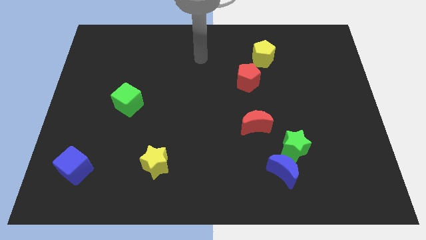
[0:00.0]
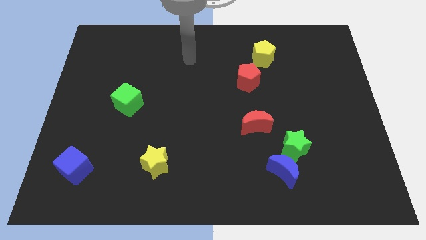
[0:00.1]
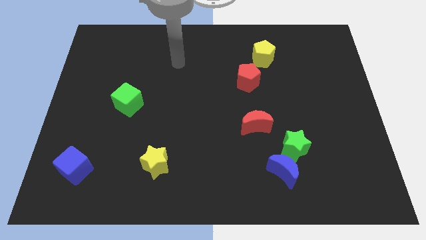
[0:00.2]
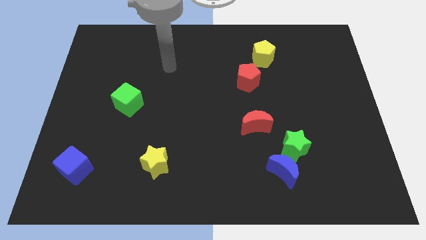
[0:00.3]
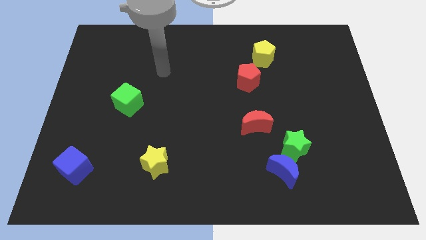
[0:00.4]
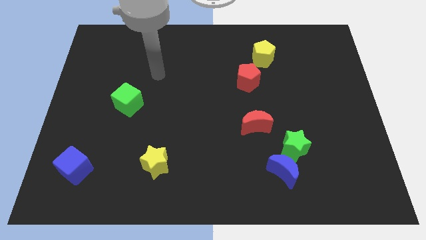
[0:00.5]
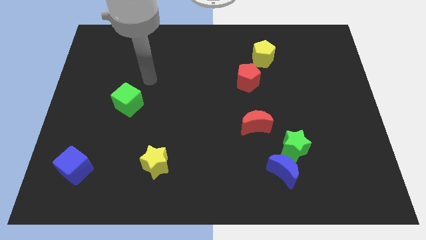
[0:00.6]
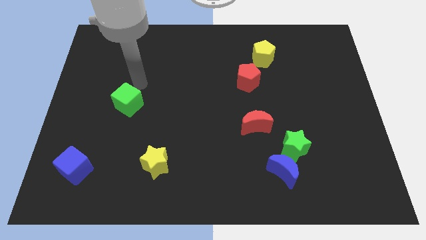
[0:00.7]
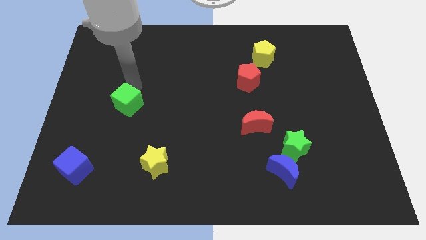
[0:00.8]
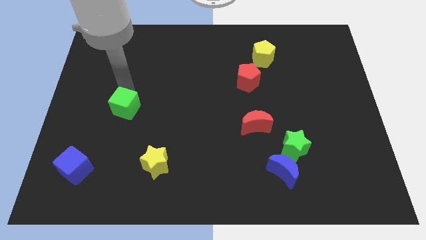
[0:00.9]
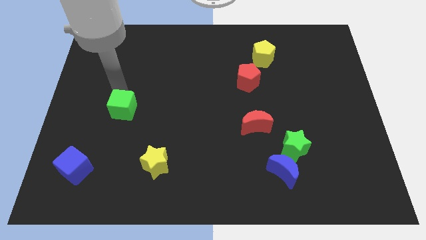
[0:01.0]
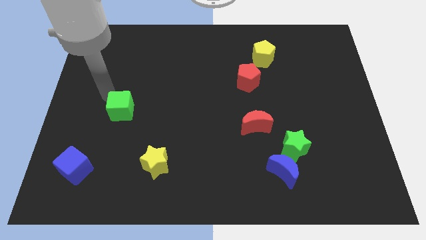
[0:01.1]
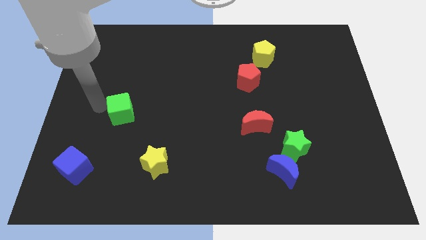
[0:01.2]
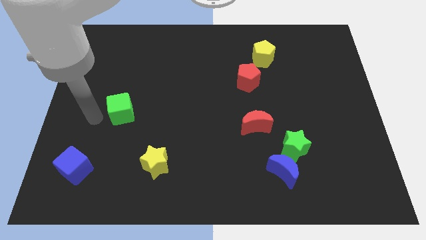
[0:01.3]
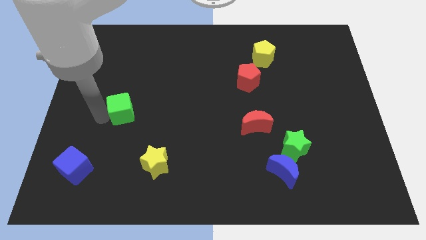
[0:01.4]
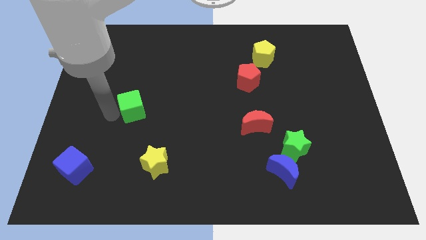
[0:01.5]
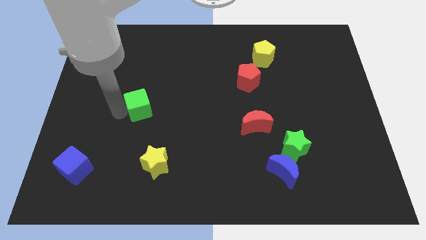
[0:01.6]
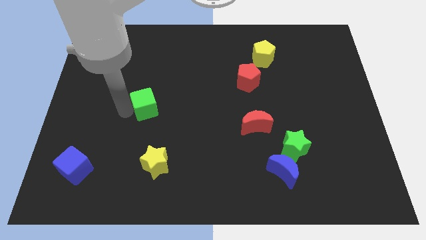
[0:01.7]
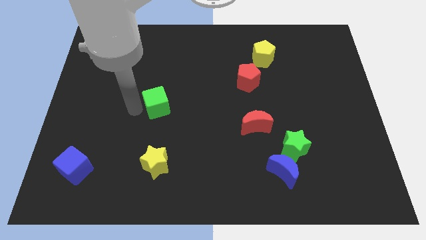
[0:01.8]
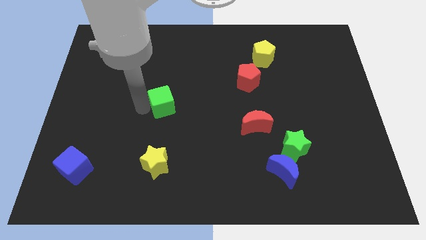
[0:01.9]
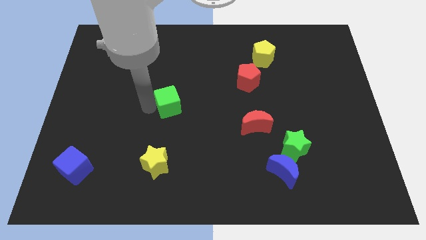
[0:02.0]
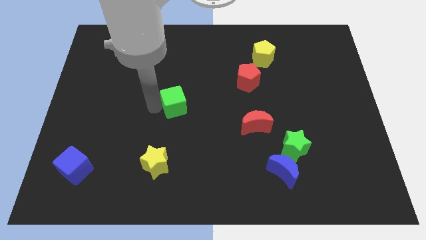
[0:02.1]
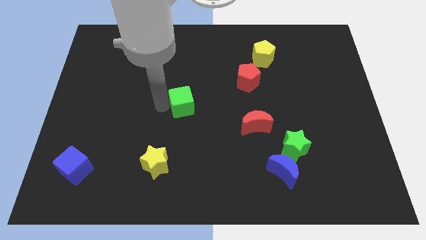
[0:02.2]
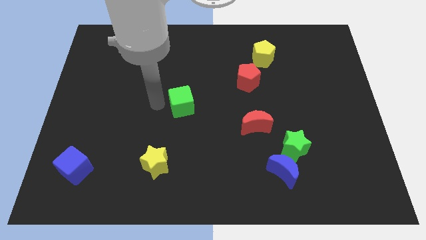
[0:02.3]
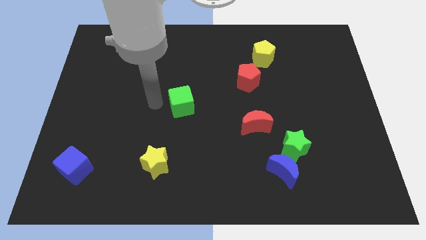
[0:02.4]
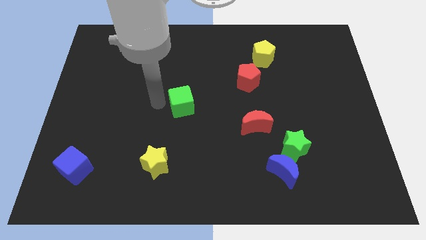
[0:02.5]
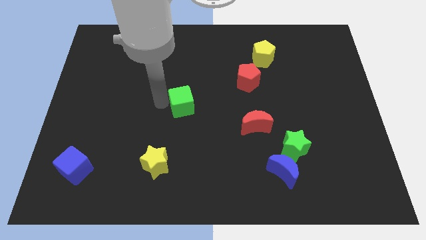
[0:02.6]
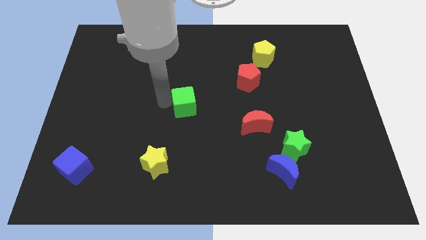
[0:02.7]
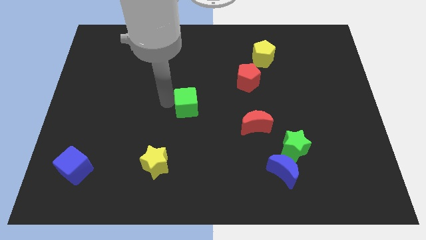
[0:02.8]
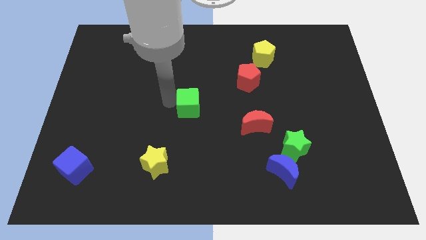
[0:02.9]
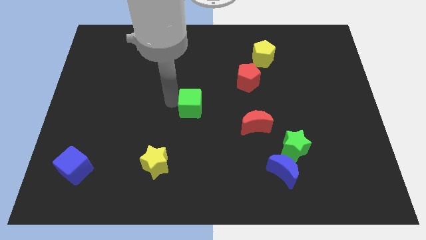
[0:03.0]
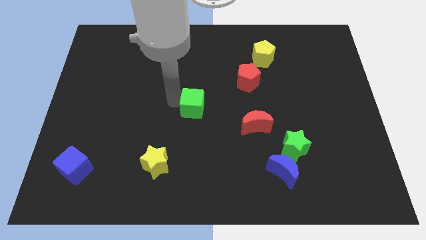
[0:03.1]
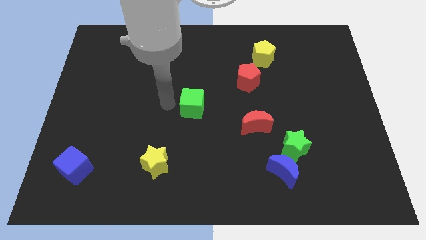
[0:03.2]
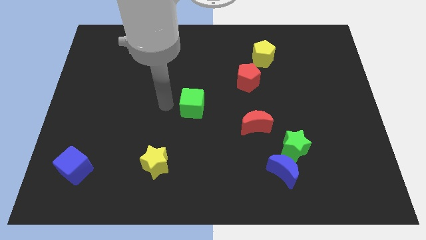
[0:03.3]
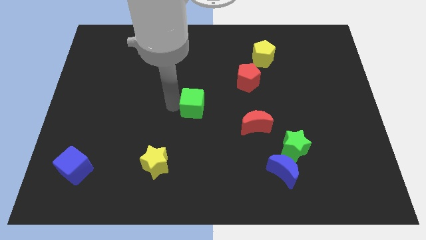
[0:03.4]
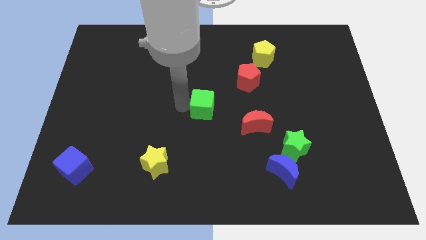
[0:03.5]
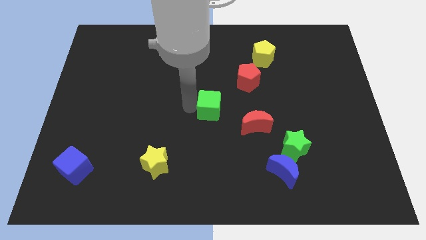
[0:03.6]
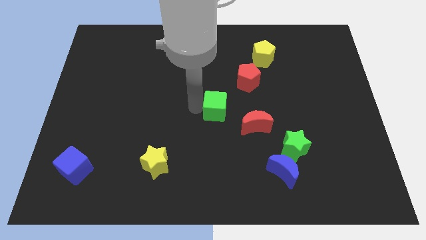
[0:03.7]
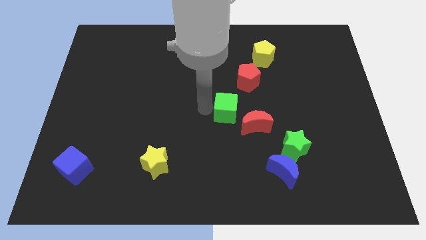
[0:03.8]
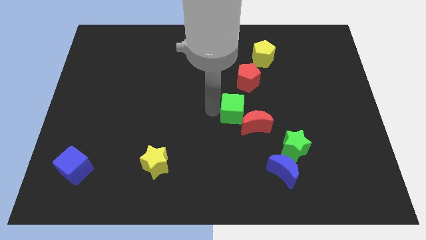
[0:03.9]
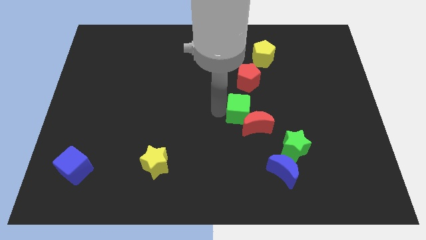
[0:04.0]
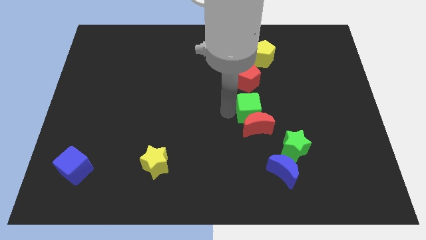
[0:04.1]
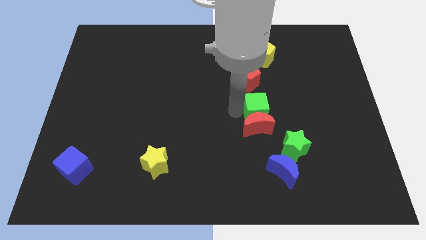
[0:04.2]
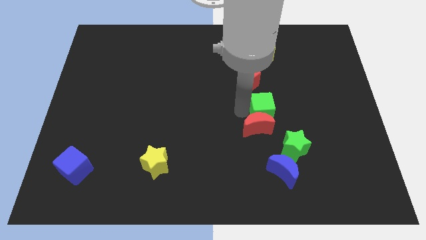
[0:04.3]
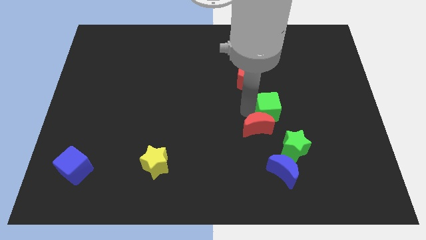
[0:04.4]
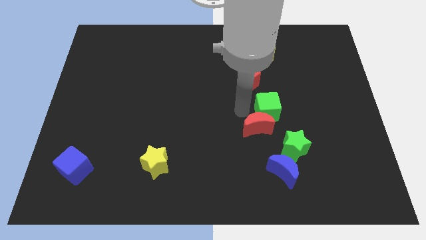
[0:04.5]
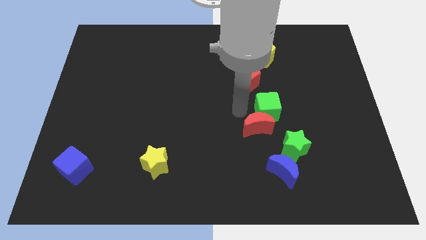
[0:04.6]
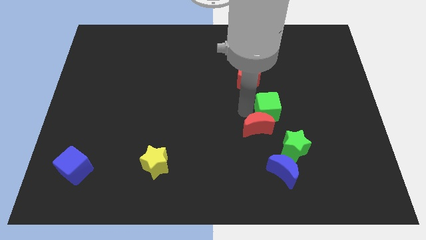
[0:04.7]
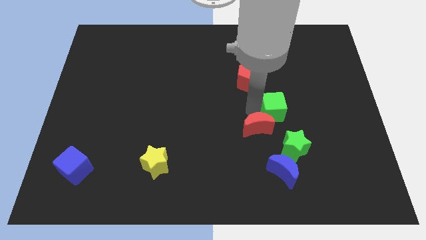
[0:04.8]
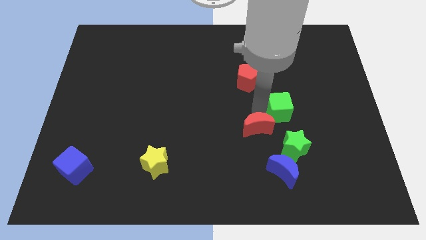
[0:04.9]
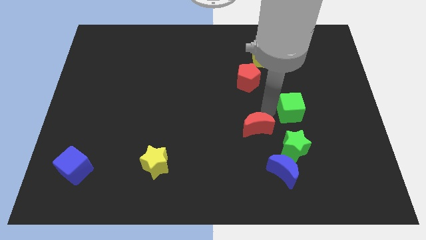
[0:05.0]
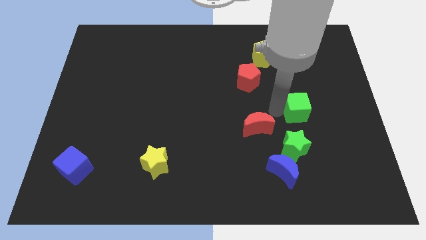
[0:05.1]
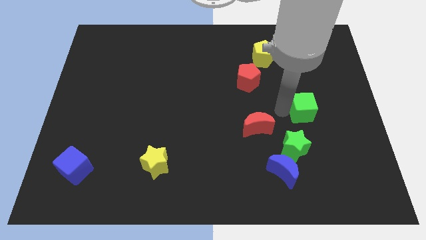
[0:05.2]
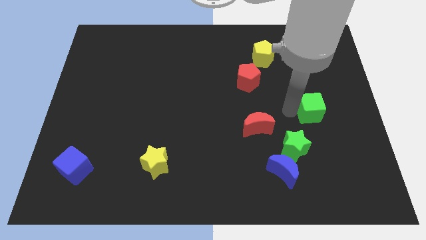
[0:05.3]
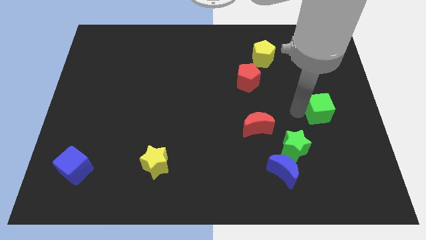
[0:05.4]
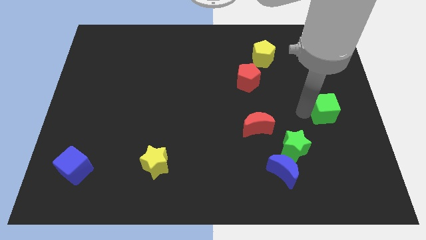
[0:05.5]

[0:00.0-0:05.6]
move the green cube to the center right
